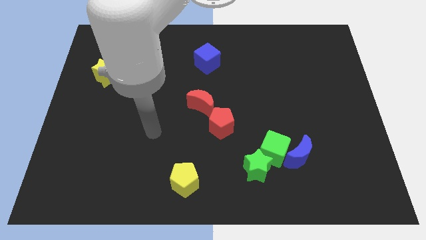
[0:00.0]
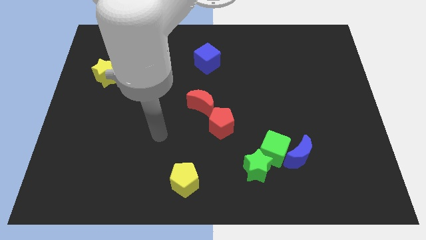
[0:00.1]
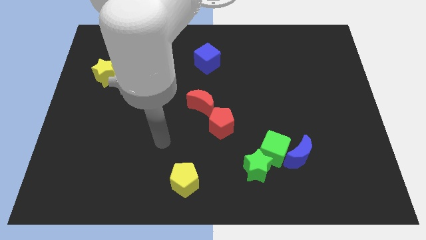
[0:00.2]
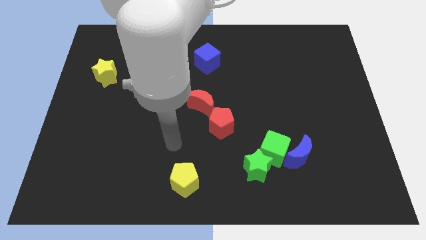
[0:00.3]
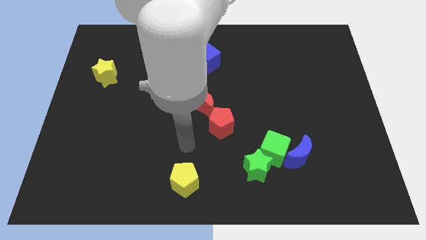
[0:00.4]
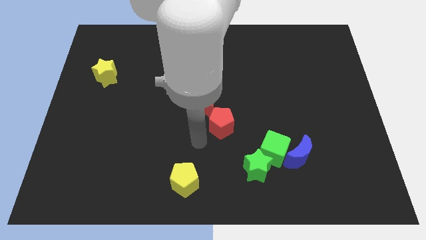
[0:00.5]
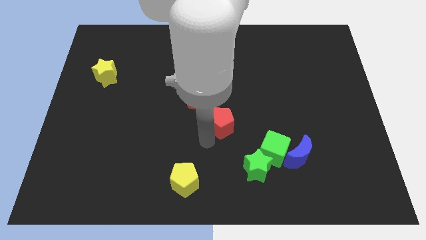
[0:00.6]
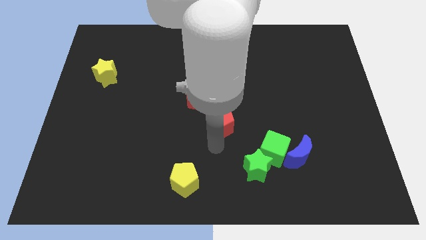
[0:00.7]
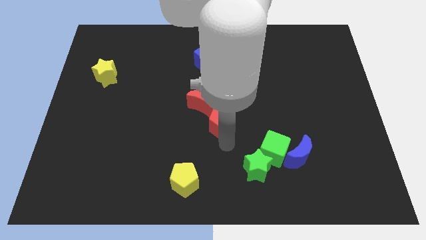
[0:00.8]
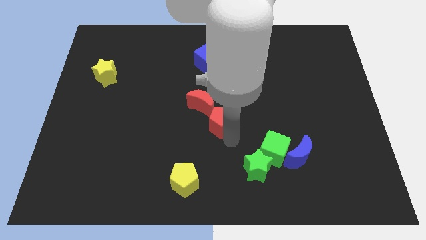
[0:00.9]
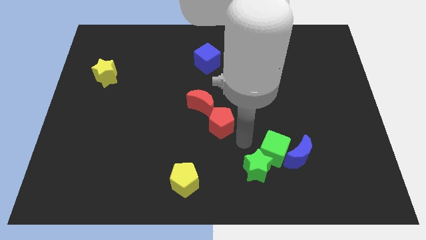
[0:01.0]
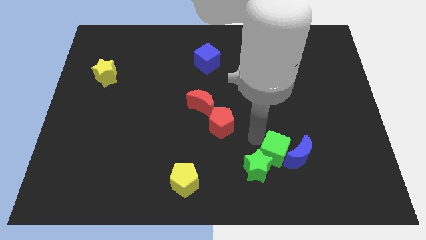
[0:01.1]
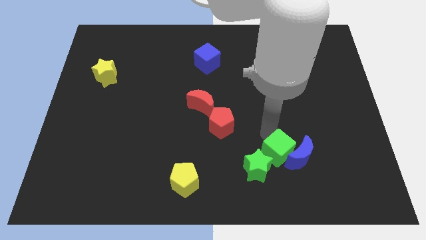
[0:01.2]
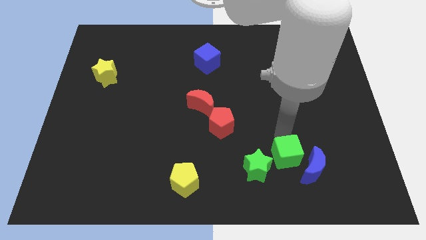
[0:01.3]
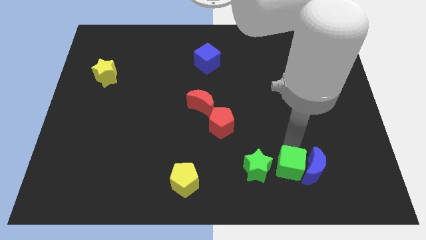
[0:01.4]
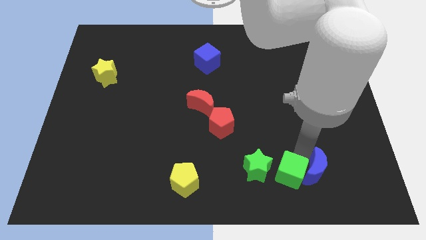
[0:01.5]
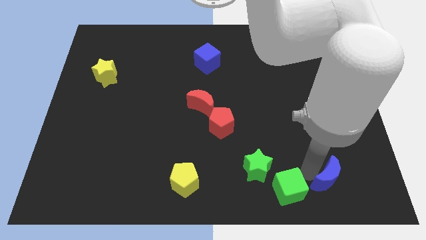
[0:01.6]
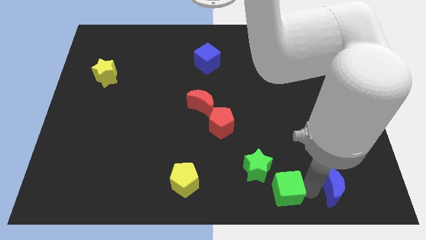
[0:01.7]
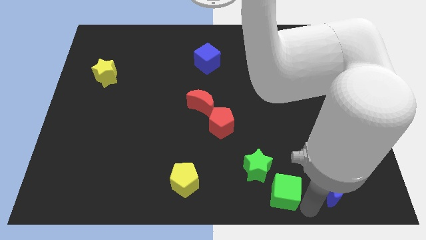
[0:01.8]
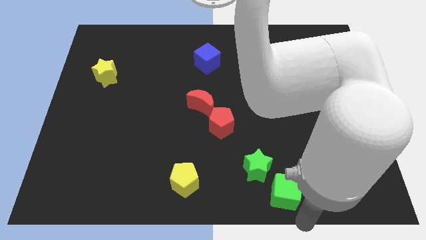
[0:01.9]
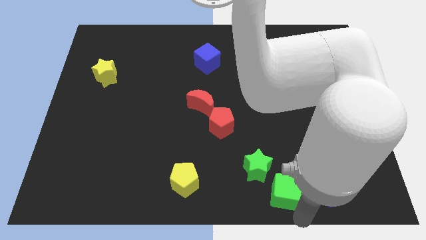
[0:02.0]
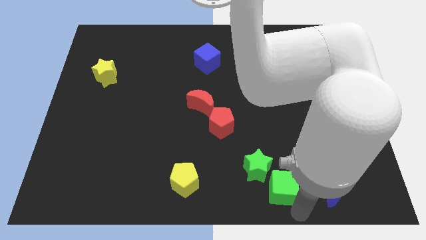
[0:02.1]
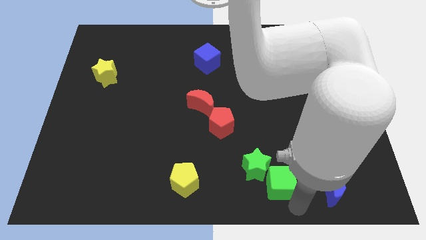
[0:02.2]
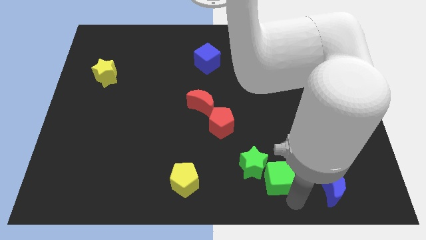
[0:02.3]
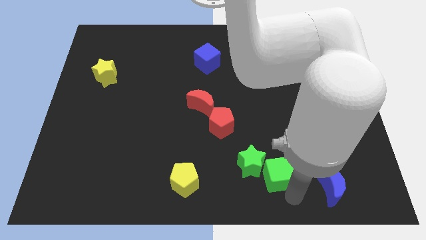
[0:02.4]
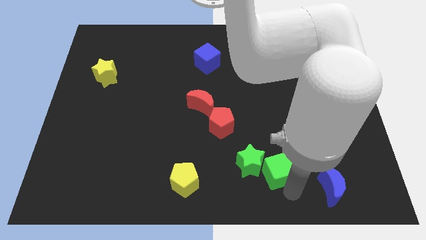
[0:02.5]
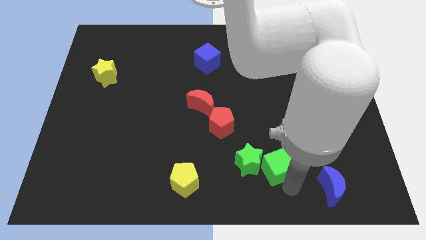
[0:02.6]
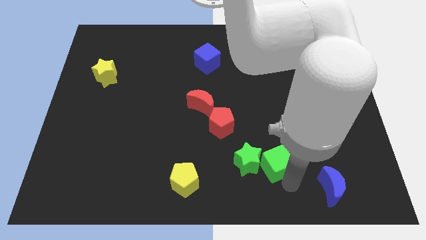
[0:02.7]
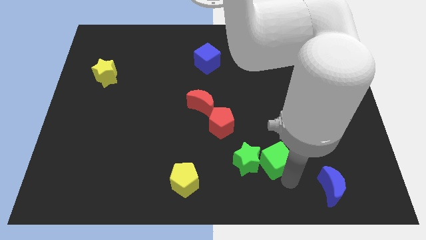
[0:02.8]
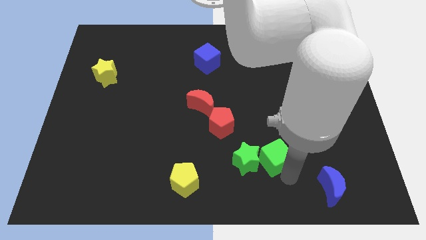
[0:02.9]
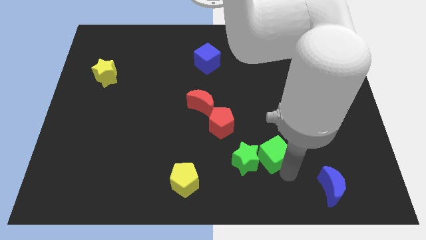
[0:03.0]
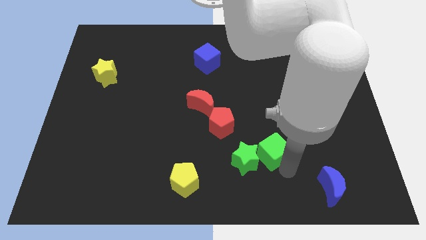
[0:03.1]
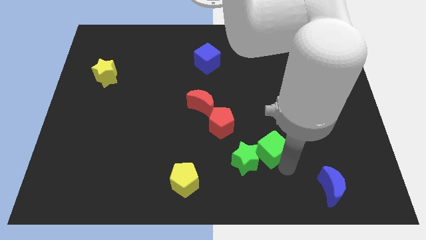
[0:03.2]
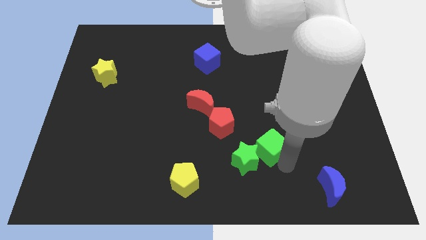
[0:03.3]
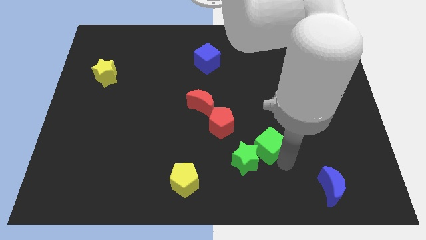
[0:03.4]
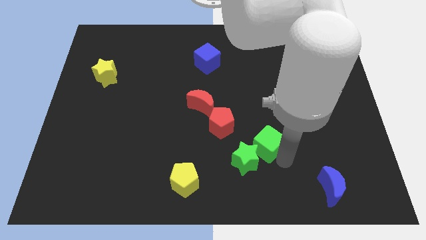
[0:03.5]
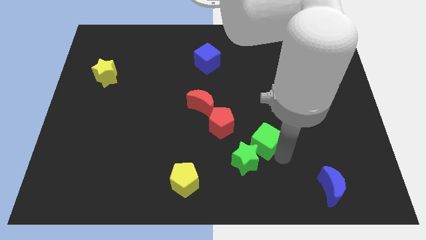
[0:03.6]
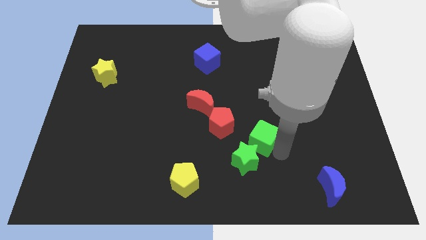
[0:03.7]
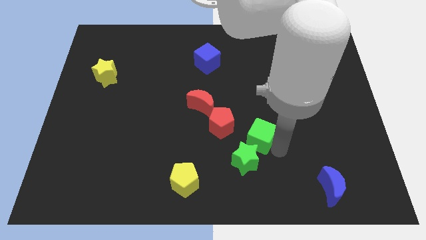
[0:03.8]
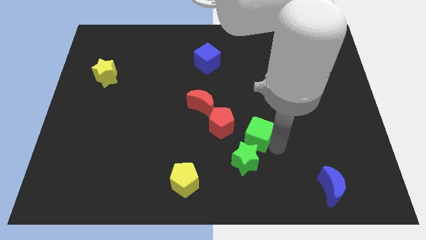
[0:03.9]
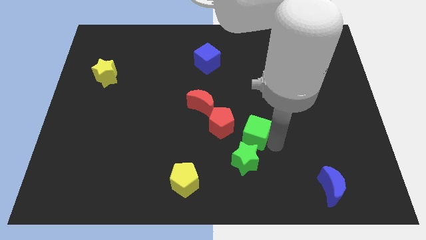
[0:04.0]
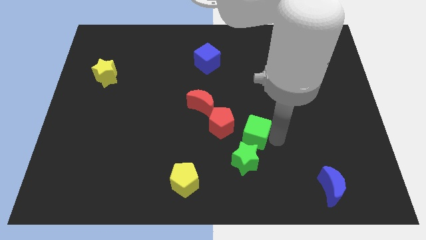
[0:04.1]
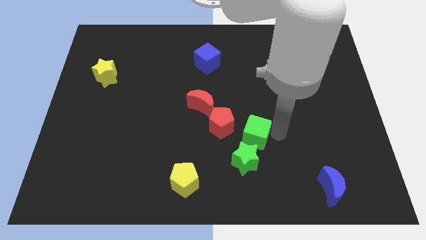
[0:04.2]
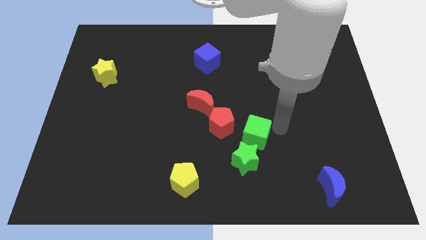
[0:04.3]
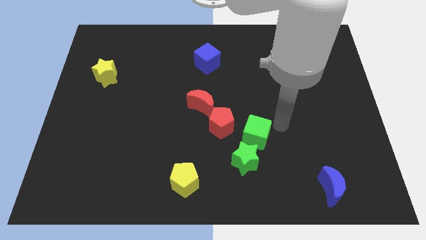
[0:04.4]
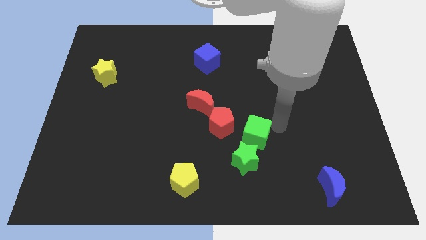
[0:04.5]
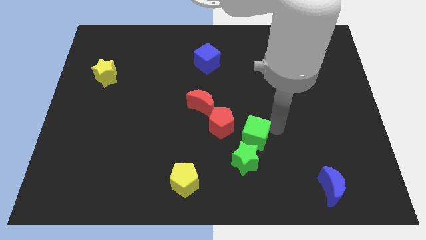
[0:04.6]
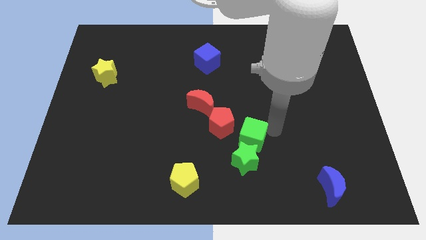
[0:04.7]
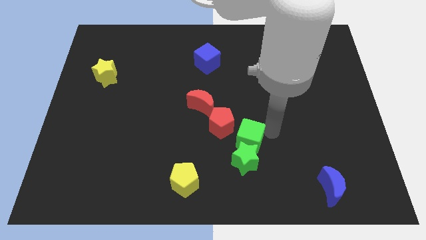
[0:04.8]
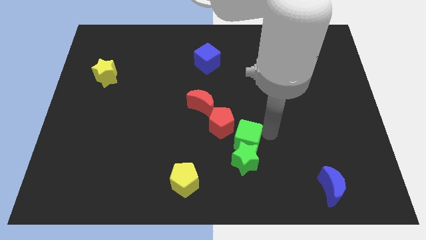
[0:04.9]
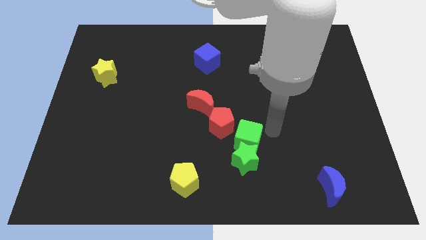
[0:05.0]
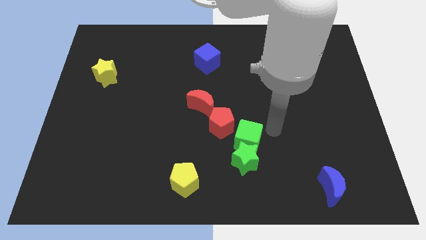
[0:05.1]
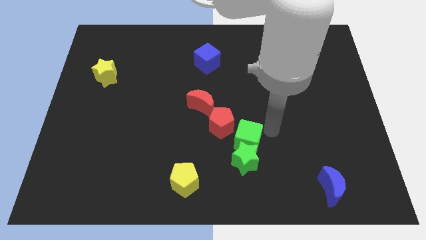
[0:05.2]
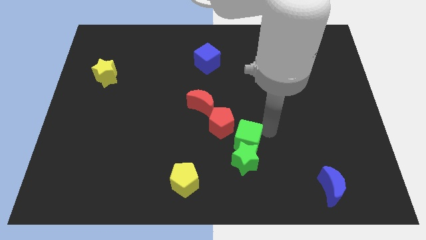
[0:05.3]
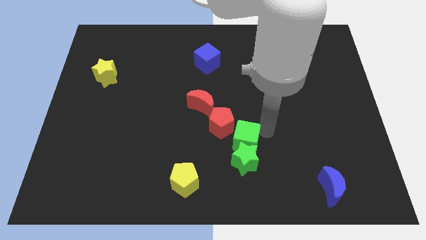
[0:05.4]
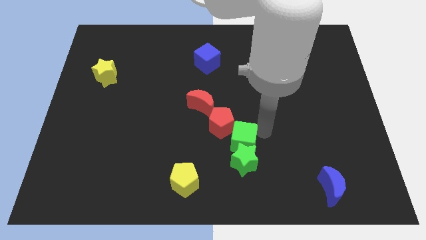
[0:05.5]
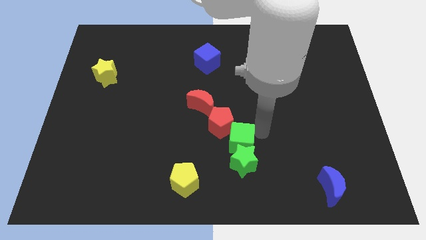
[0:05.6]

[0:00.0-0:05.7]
slightly slide the green cube left

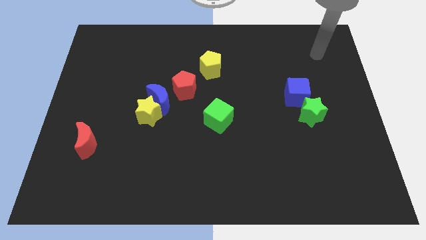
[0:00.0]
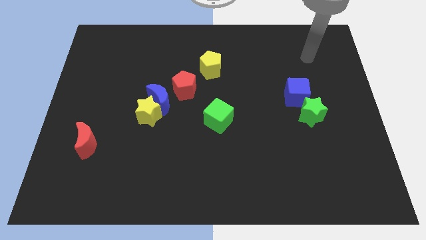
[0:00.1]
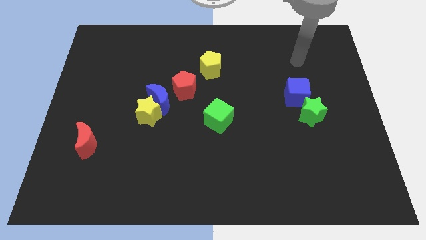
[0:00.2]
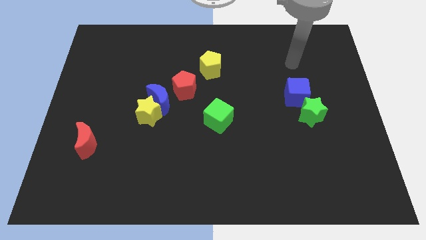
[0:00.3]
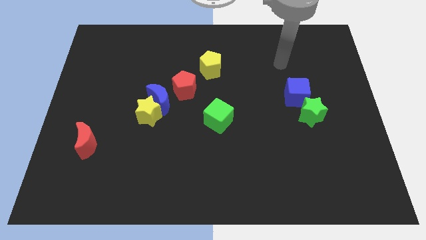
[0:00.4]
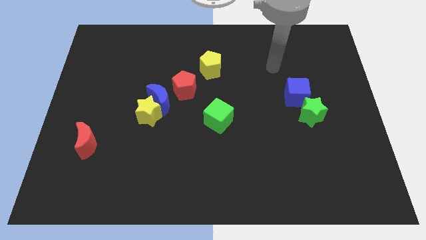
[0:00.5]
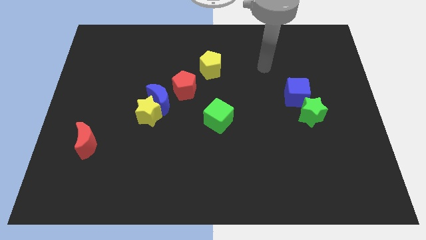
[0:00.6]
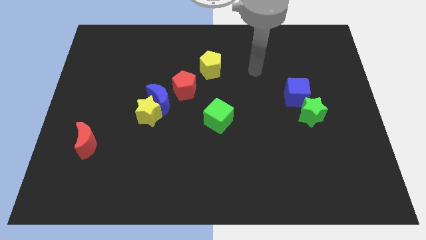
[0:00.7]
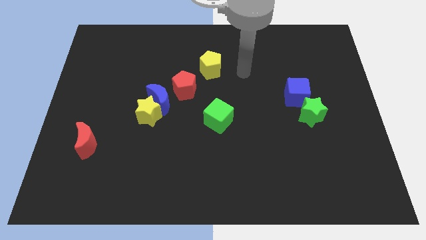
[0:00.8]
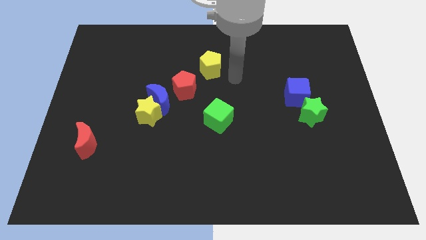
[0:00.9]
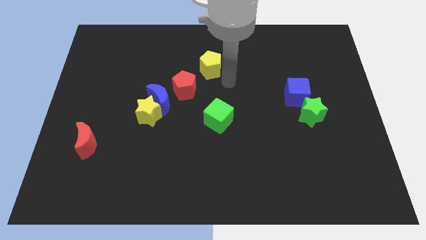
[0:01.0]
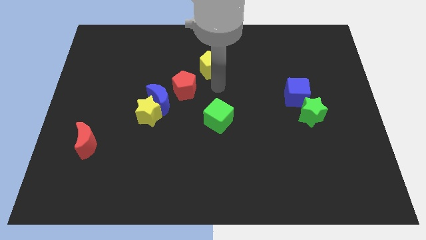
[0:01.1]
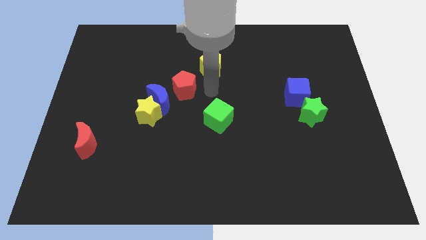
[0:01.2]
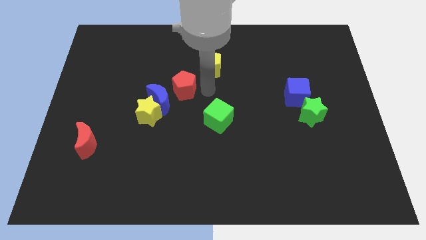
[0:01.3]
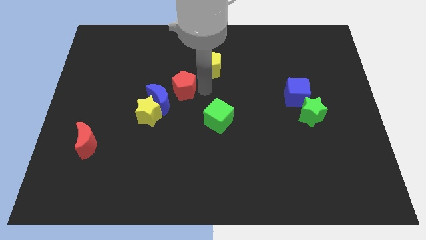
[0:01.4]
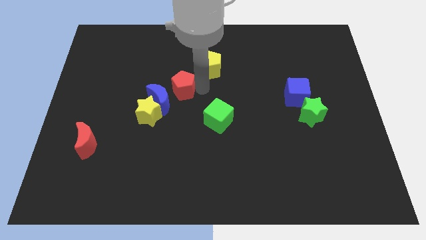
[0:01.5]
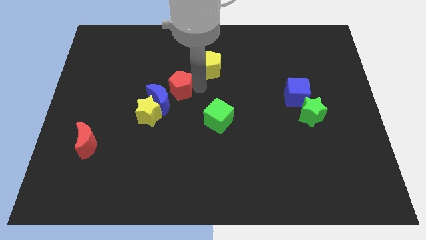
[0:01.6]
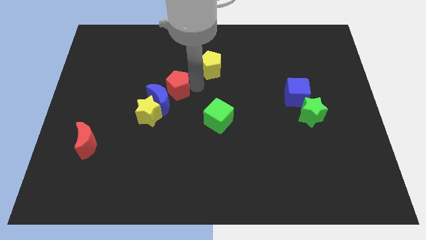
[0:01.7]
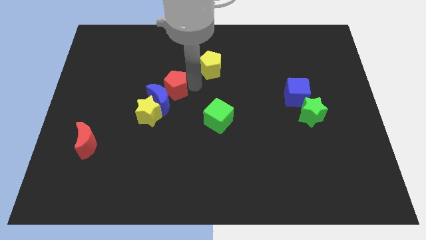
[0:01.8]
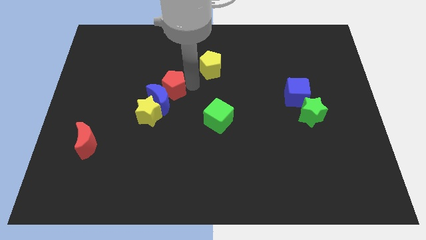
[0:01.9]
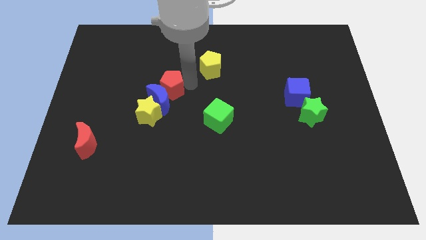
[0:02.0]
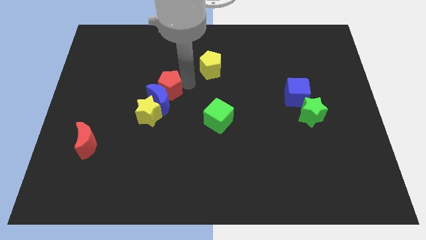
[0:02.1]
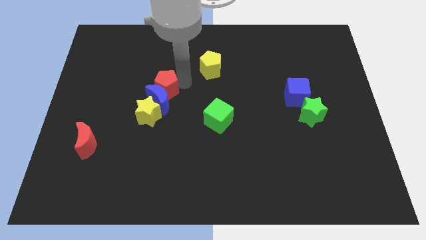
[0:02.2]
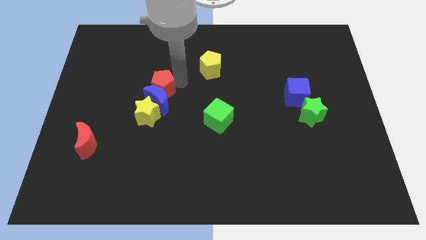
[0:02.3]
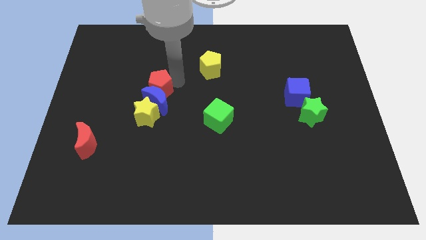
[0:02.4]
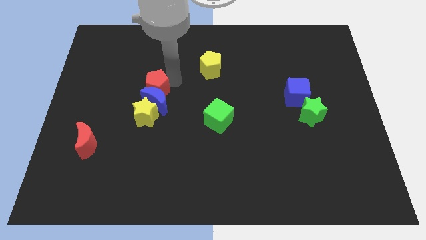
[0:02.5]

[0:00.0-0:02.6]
move the red pentagon to the left a bit
